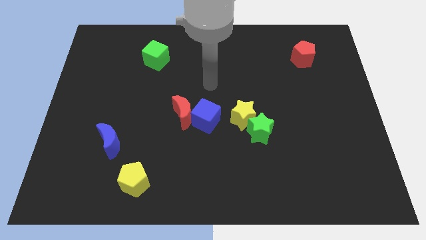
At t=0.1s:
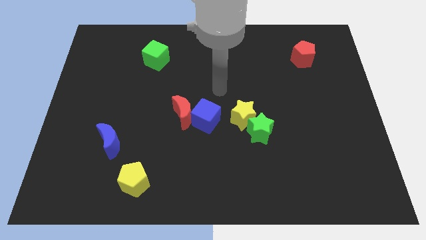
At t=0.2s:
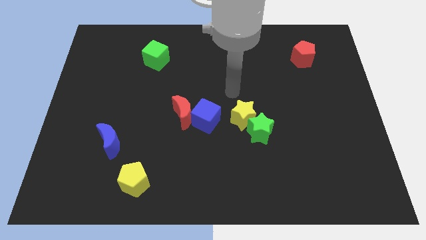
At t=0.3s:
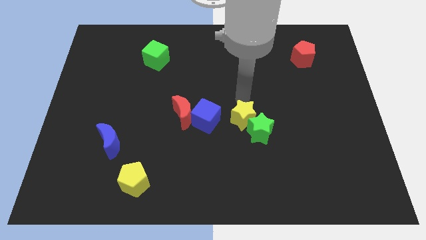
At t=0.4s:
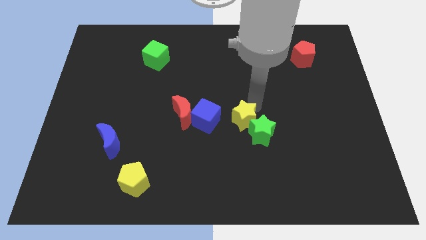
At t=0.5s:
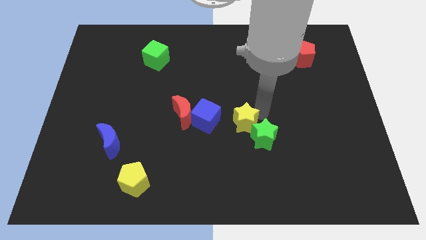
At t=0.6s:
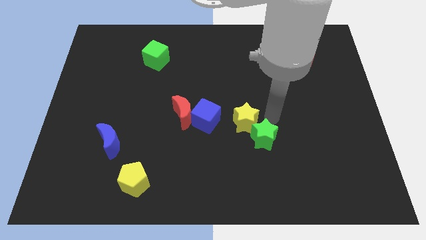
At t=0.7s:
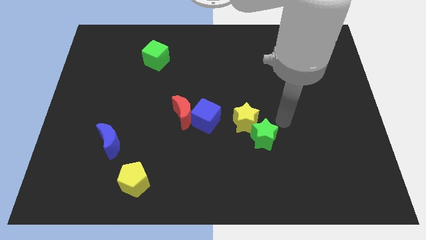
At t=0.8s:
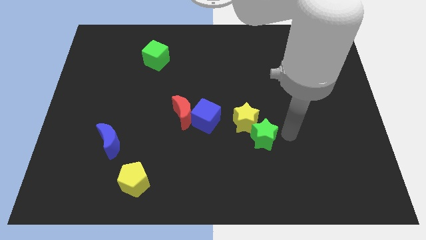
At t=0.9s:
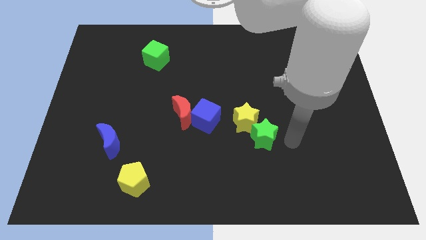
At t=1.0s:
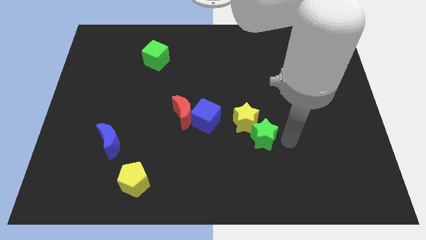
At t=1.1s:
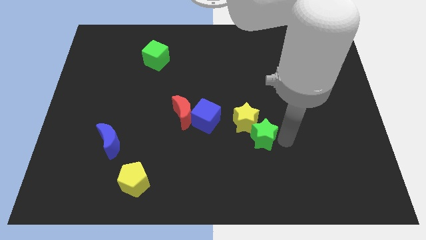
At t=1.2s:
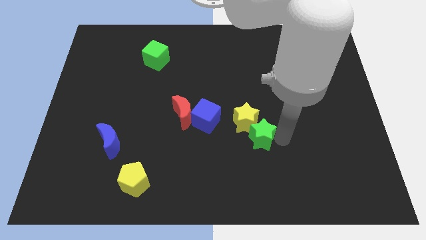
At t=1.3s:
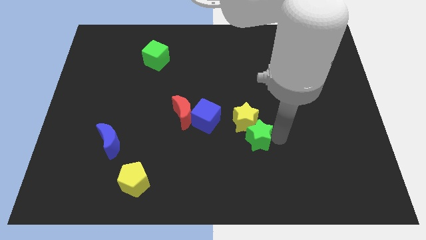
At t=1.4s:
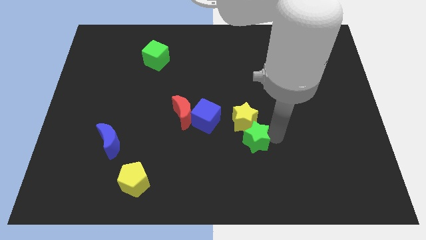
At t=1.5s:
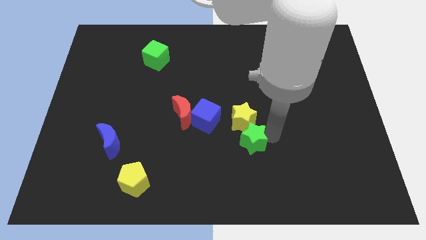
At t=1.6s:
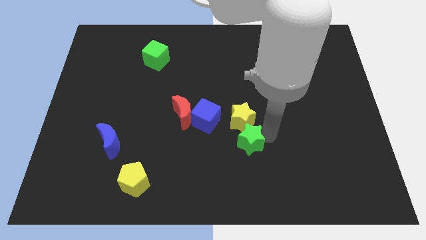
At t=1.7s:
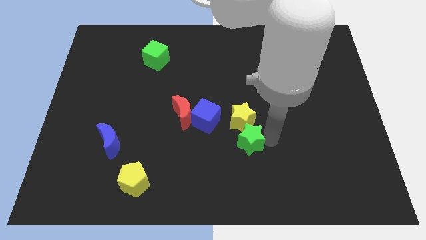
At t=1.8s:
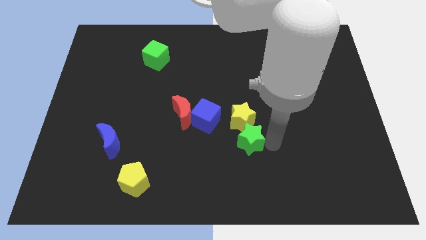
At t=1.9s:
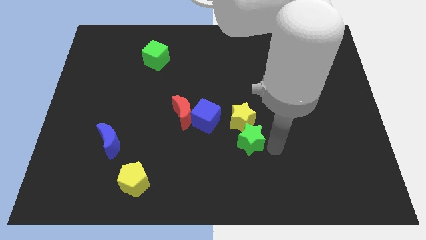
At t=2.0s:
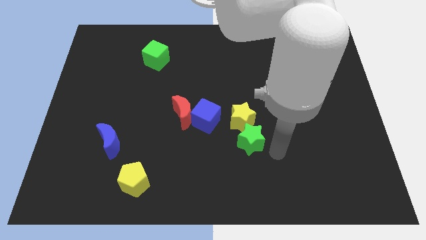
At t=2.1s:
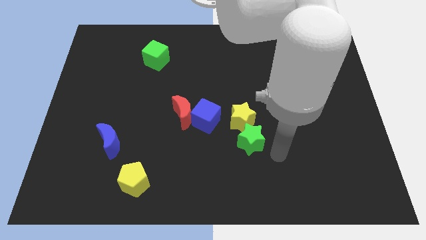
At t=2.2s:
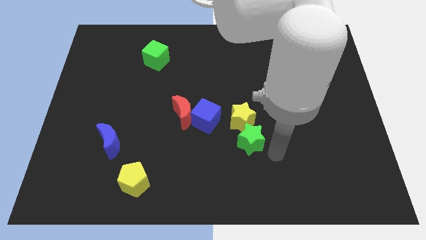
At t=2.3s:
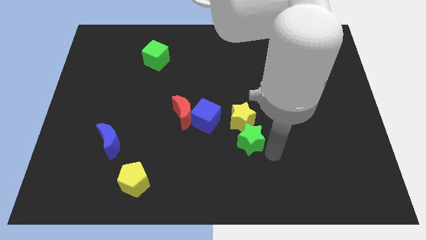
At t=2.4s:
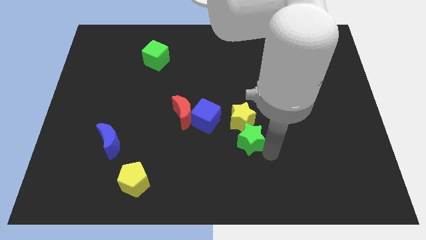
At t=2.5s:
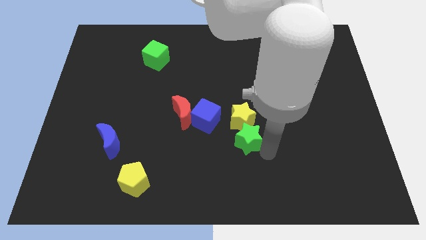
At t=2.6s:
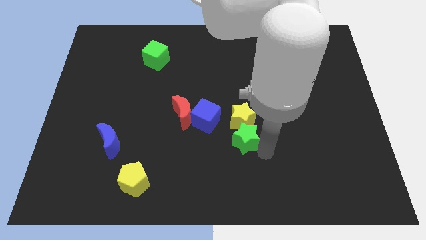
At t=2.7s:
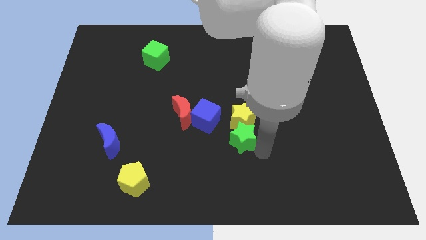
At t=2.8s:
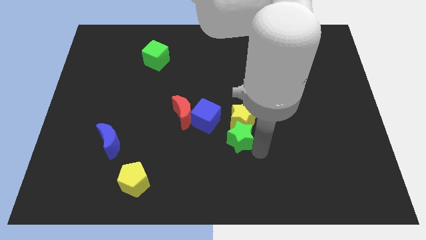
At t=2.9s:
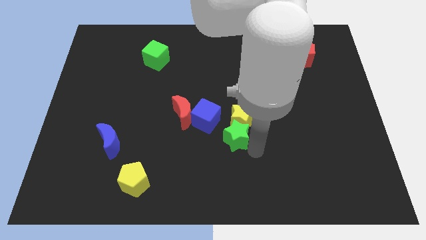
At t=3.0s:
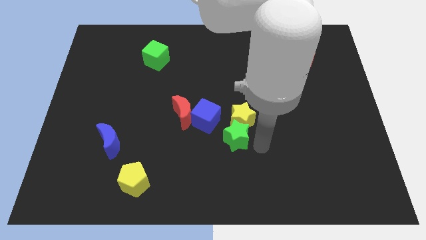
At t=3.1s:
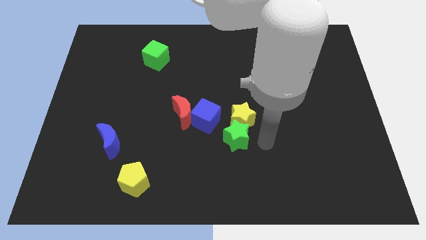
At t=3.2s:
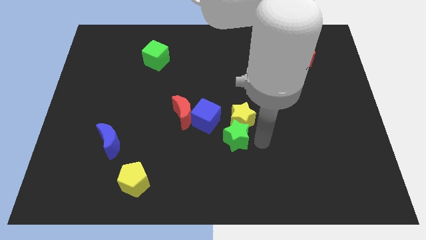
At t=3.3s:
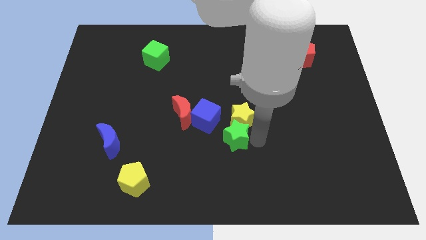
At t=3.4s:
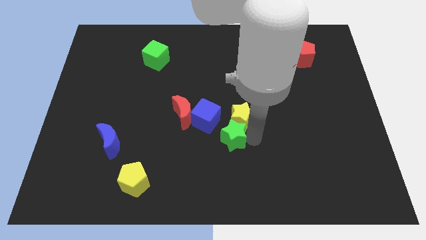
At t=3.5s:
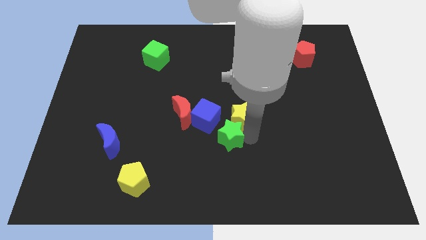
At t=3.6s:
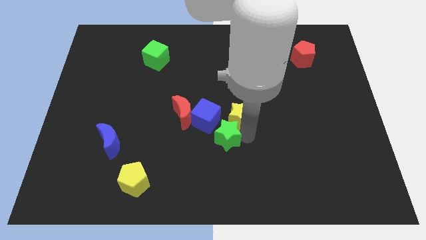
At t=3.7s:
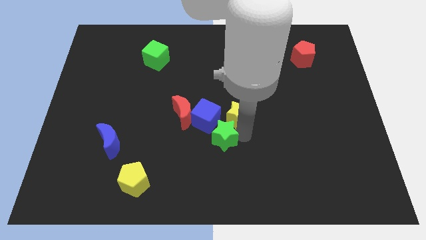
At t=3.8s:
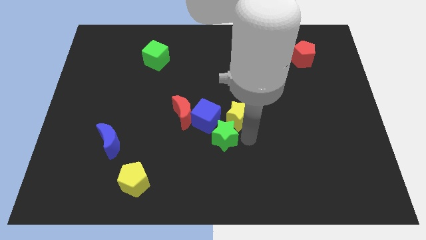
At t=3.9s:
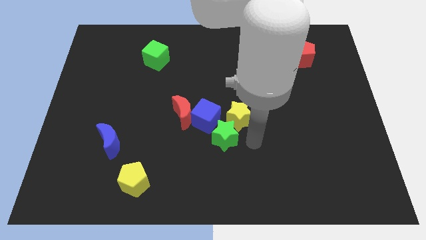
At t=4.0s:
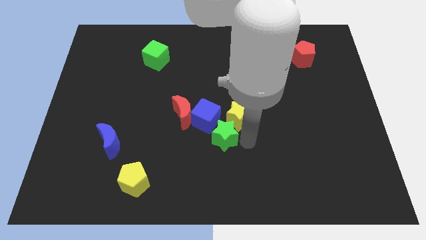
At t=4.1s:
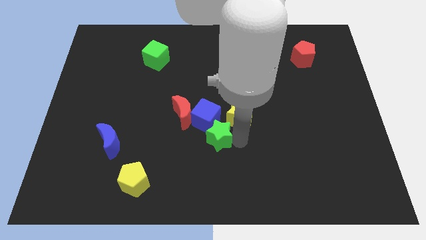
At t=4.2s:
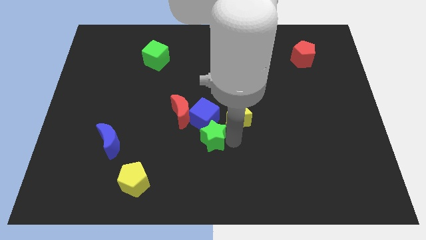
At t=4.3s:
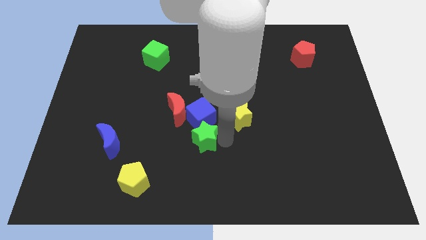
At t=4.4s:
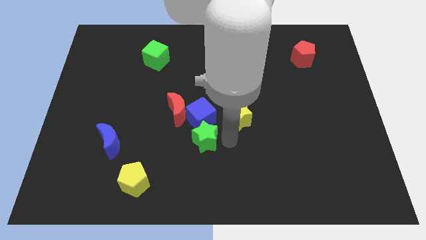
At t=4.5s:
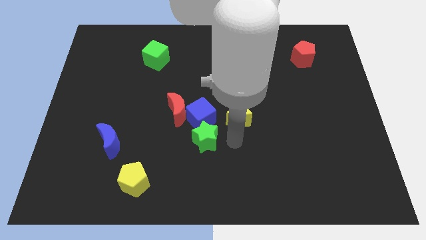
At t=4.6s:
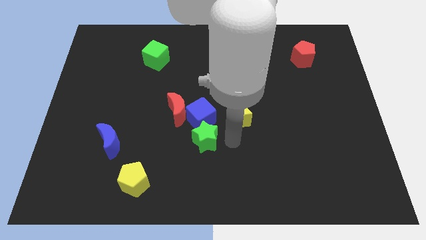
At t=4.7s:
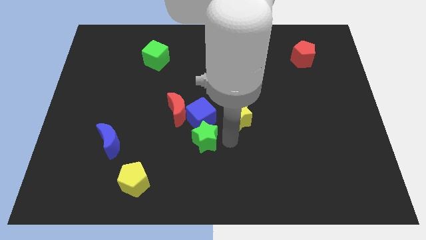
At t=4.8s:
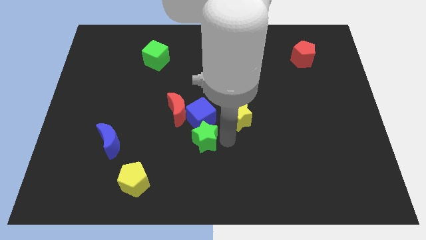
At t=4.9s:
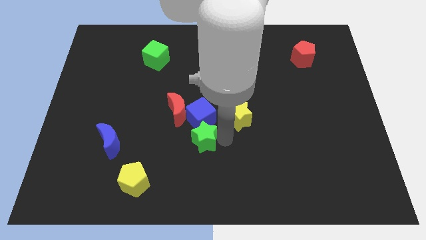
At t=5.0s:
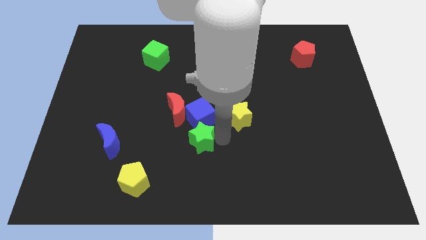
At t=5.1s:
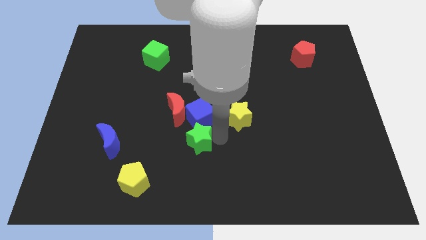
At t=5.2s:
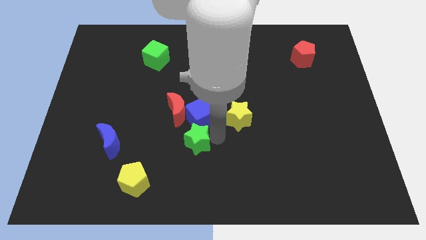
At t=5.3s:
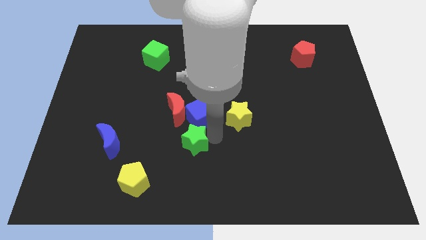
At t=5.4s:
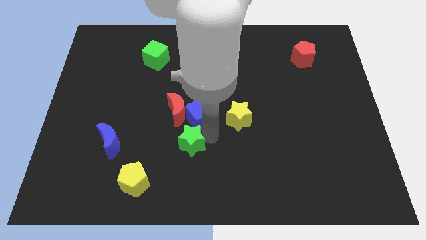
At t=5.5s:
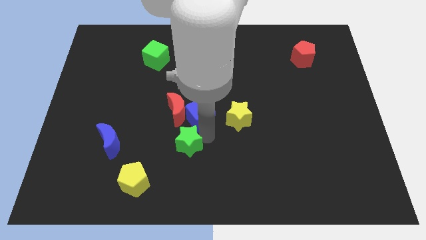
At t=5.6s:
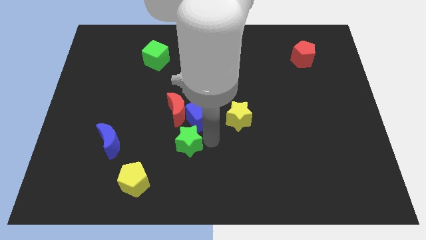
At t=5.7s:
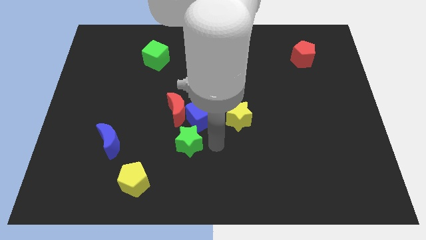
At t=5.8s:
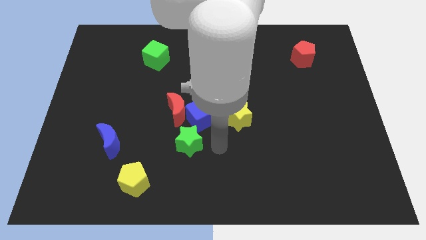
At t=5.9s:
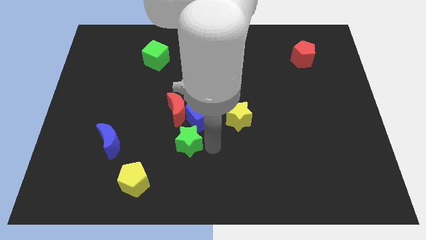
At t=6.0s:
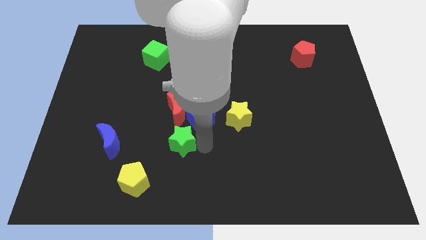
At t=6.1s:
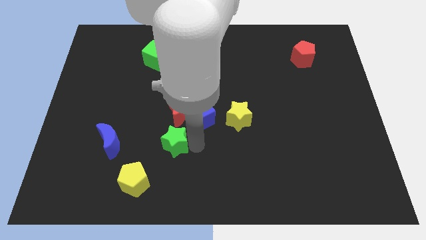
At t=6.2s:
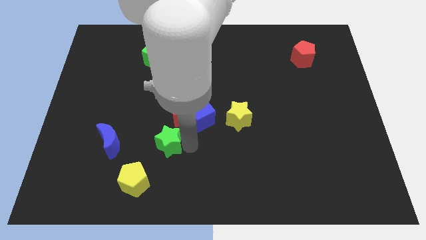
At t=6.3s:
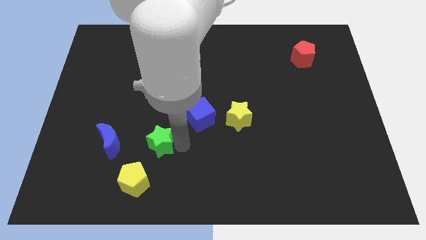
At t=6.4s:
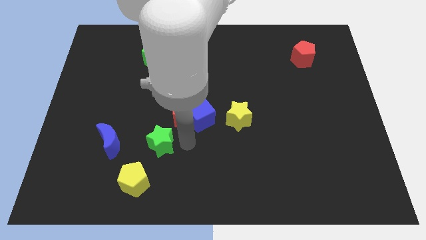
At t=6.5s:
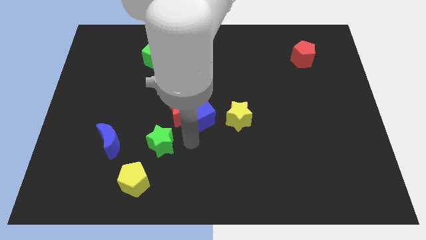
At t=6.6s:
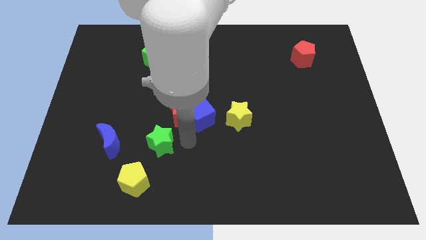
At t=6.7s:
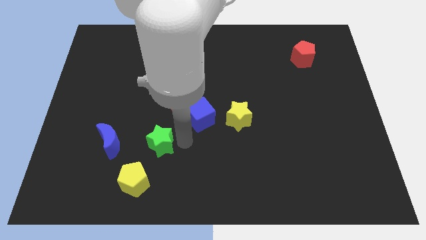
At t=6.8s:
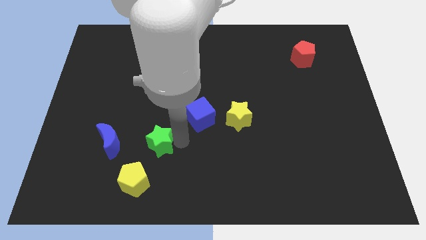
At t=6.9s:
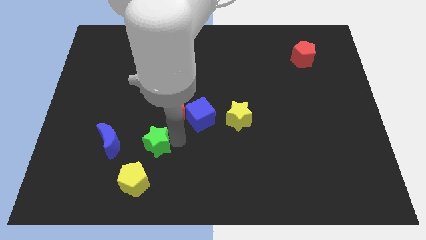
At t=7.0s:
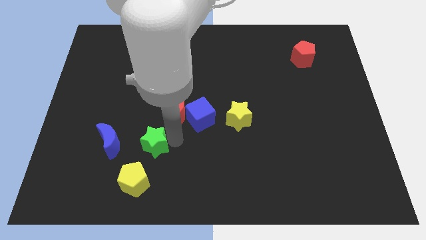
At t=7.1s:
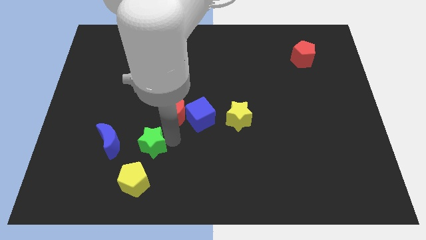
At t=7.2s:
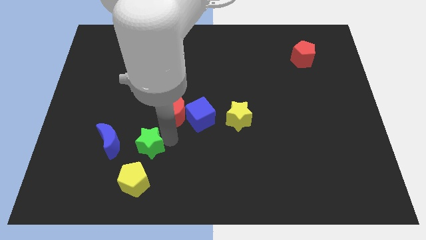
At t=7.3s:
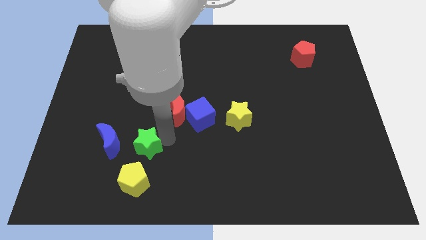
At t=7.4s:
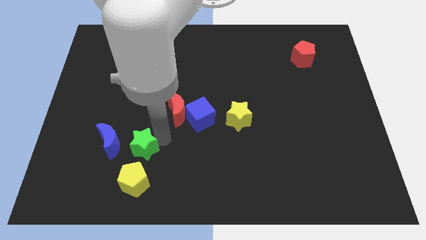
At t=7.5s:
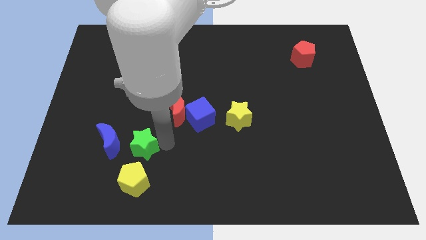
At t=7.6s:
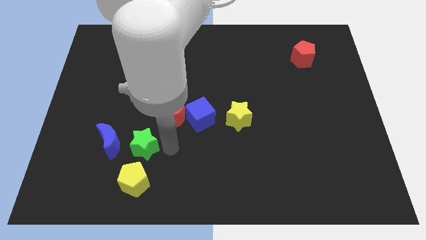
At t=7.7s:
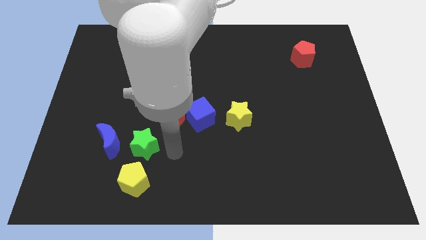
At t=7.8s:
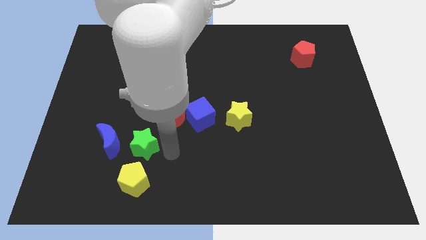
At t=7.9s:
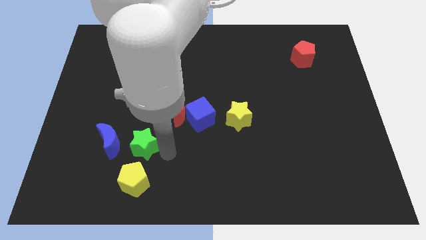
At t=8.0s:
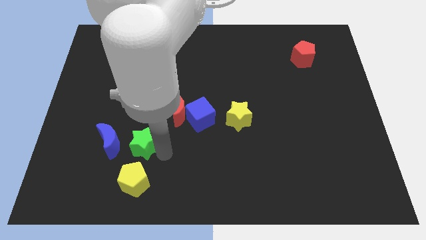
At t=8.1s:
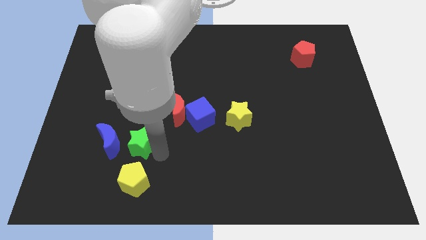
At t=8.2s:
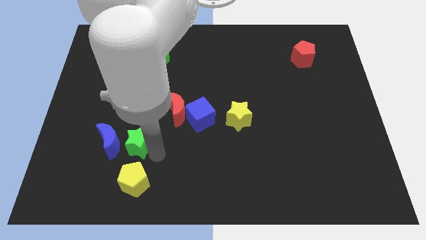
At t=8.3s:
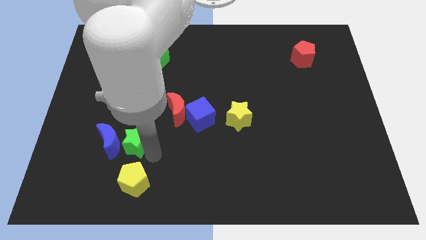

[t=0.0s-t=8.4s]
move the green star to the blue moon
